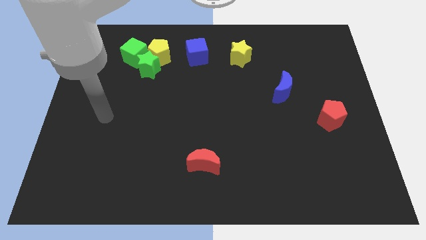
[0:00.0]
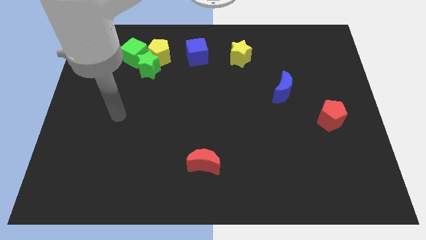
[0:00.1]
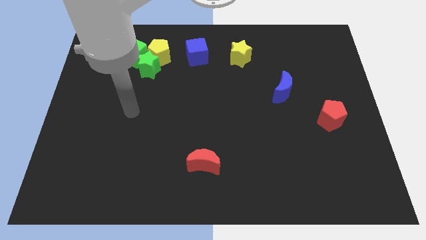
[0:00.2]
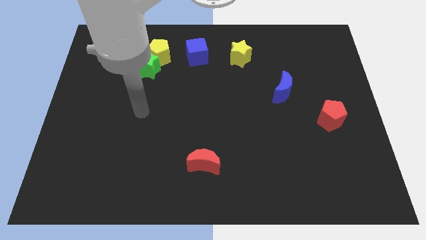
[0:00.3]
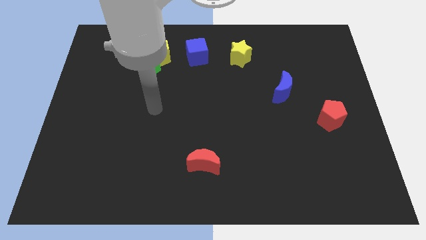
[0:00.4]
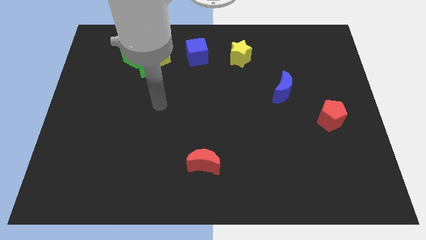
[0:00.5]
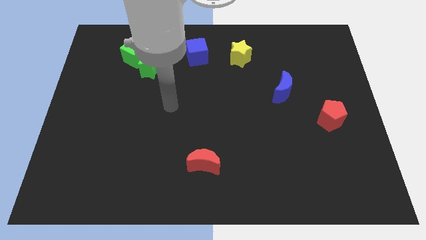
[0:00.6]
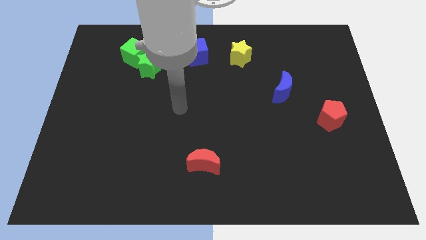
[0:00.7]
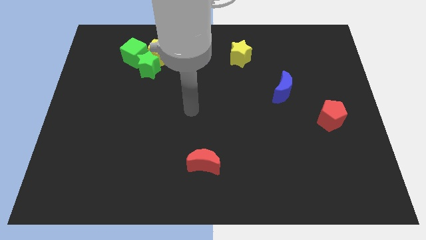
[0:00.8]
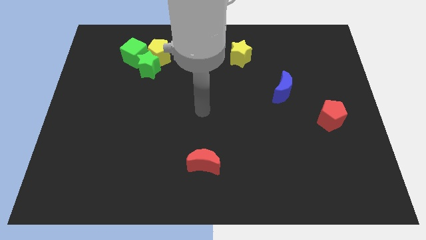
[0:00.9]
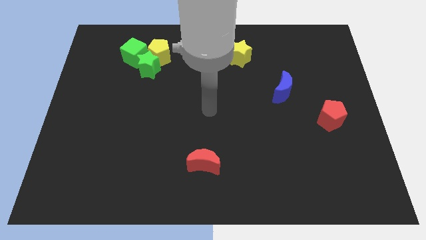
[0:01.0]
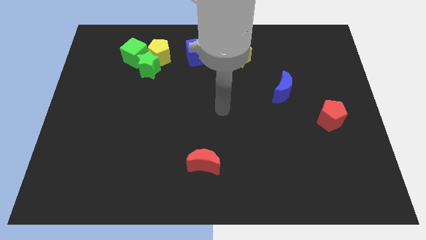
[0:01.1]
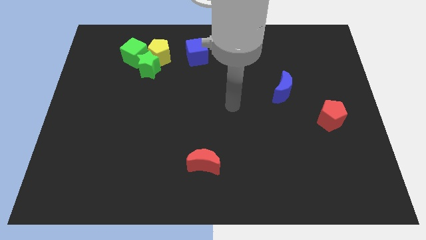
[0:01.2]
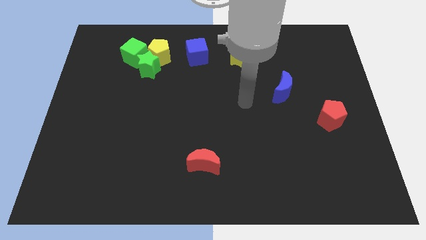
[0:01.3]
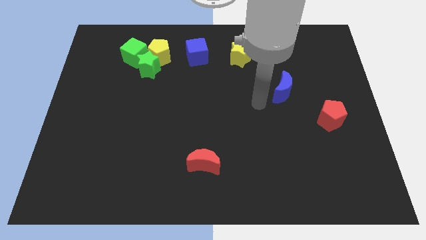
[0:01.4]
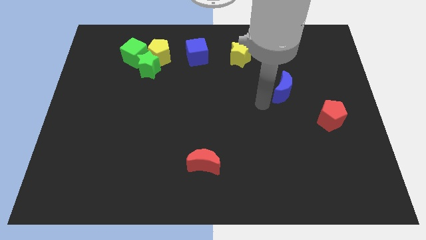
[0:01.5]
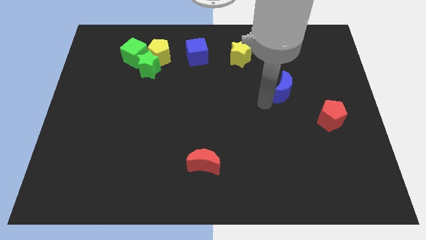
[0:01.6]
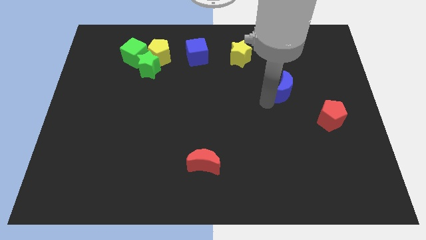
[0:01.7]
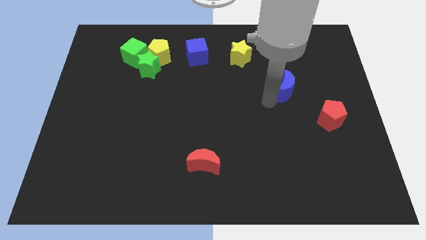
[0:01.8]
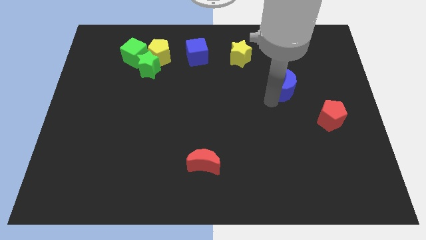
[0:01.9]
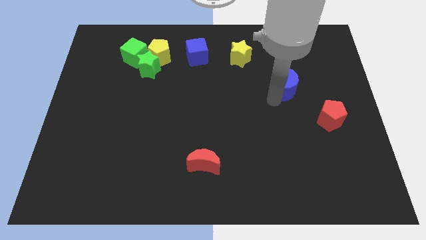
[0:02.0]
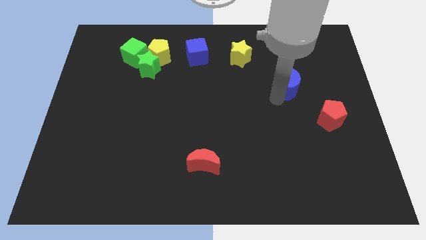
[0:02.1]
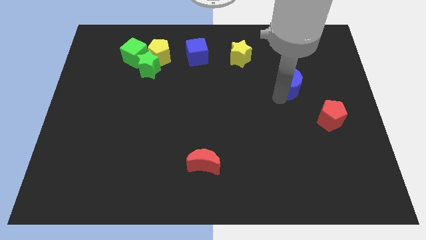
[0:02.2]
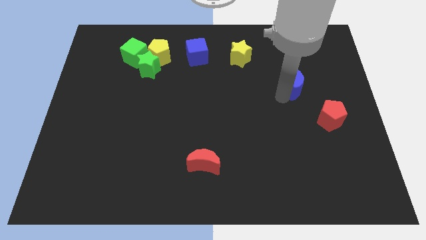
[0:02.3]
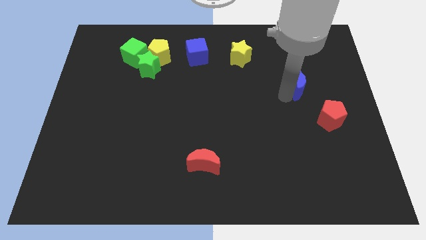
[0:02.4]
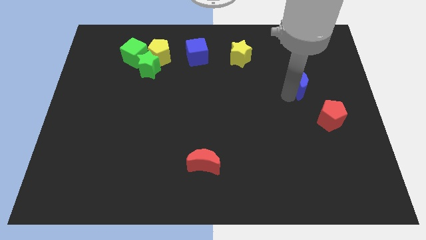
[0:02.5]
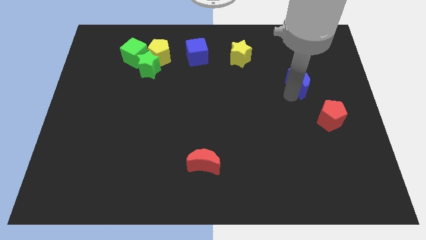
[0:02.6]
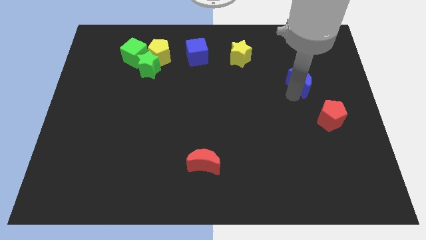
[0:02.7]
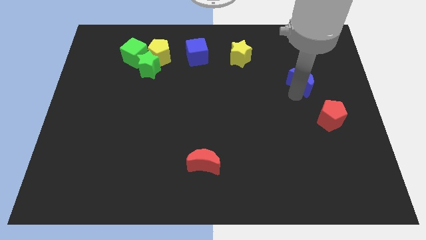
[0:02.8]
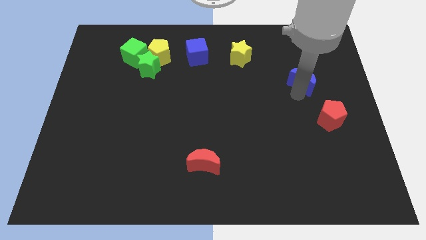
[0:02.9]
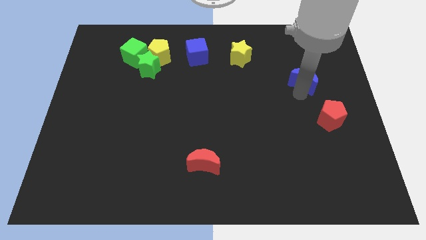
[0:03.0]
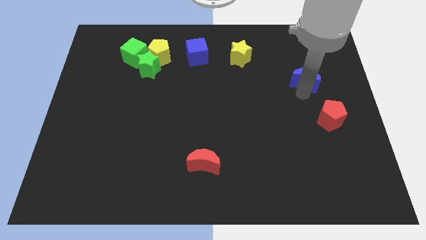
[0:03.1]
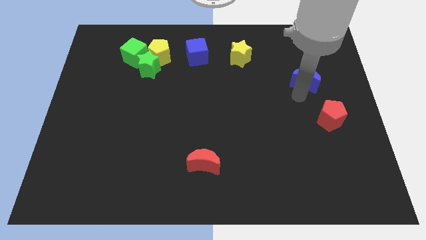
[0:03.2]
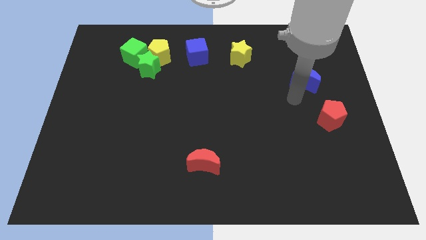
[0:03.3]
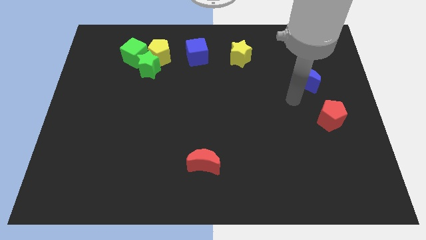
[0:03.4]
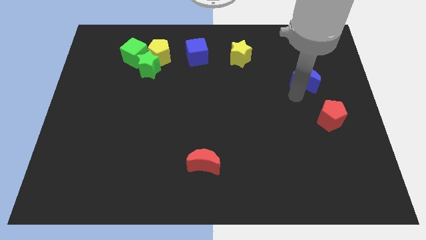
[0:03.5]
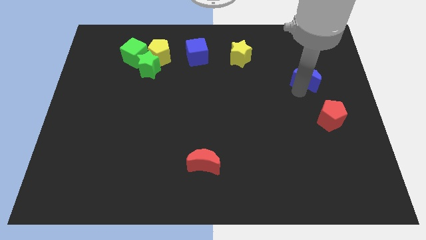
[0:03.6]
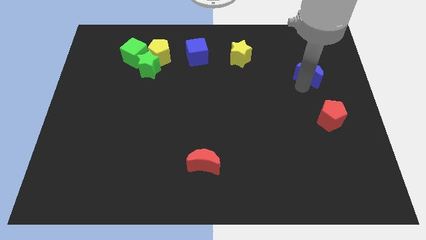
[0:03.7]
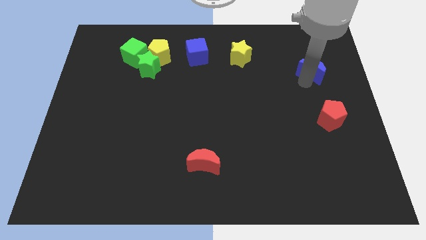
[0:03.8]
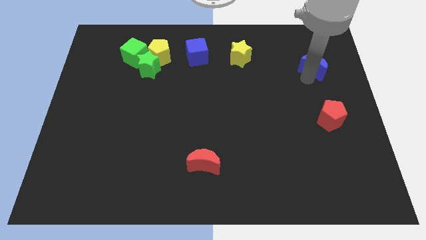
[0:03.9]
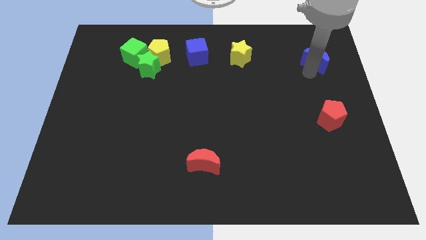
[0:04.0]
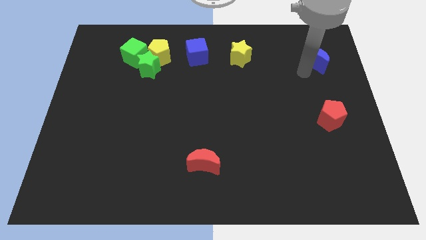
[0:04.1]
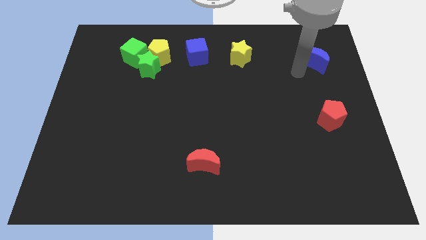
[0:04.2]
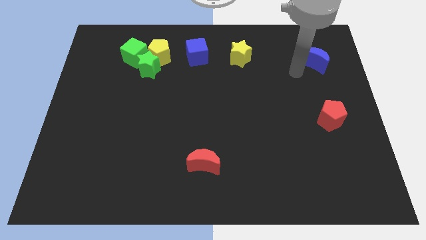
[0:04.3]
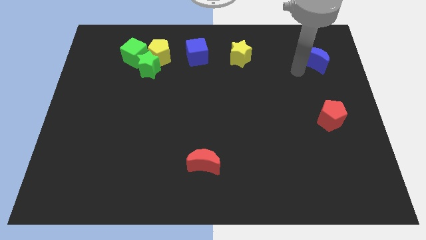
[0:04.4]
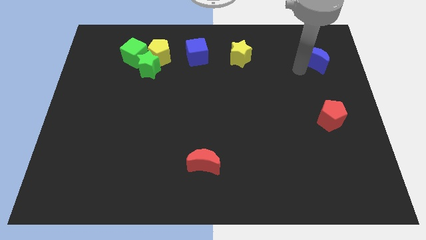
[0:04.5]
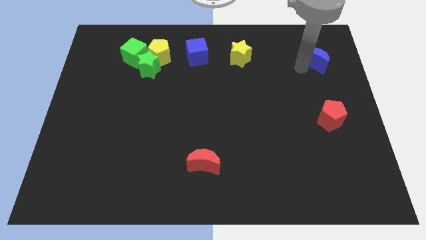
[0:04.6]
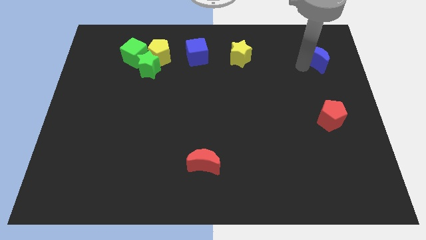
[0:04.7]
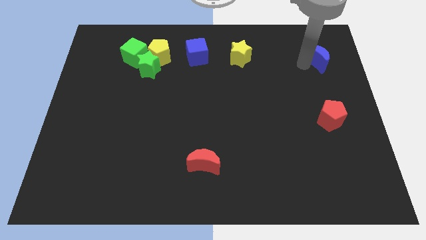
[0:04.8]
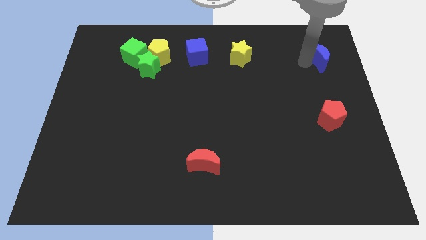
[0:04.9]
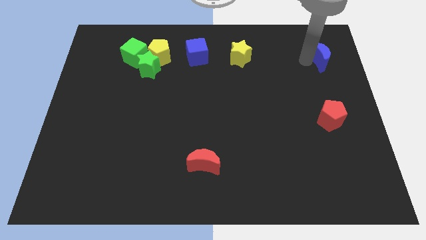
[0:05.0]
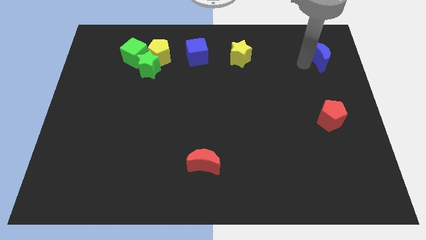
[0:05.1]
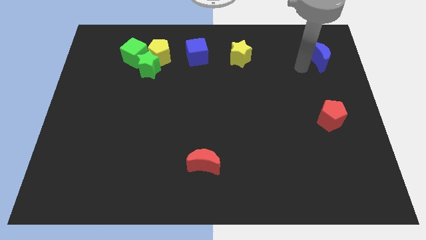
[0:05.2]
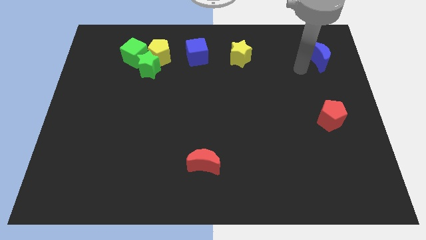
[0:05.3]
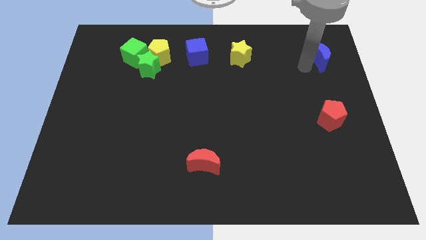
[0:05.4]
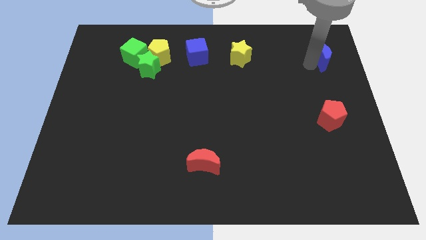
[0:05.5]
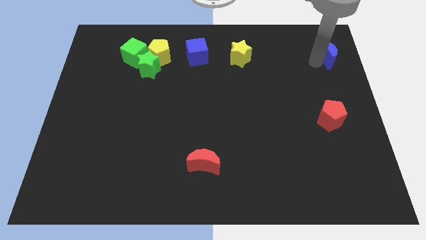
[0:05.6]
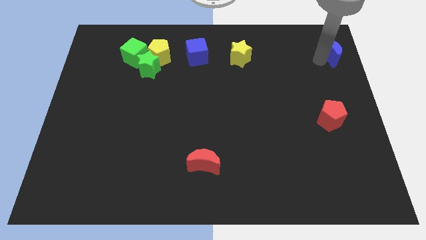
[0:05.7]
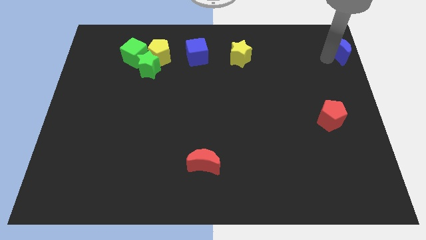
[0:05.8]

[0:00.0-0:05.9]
move the blue moon to the top right of the board

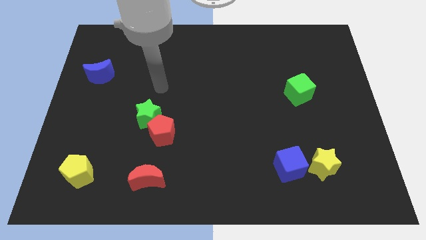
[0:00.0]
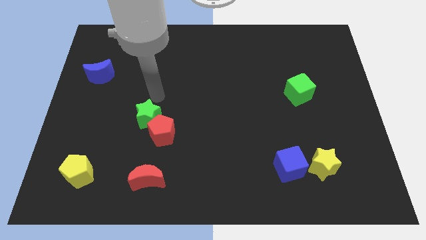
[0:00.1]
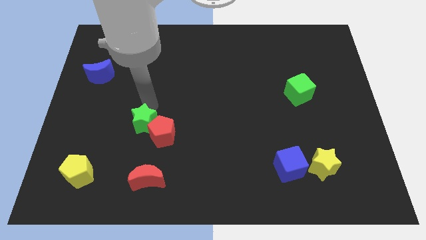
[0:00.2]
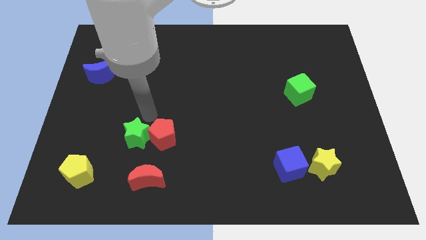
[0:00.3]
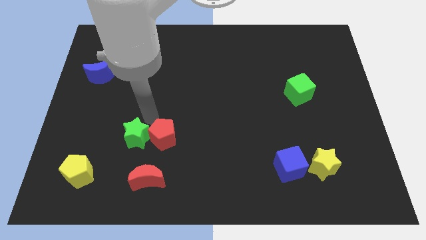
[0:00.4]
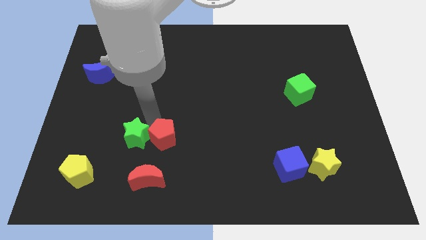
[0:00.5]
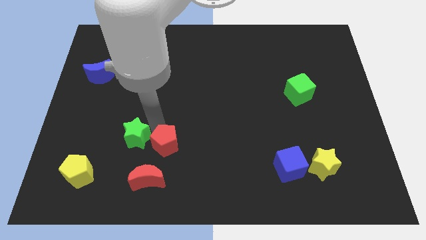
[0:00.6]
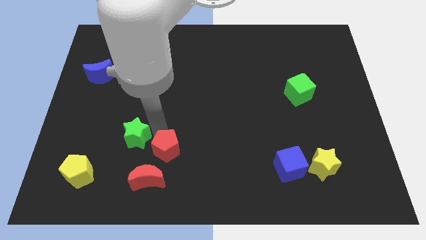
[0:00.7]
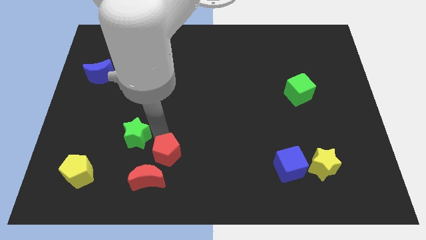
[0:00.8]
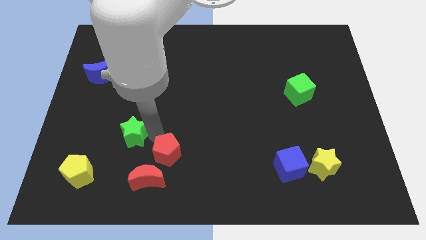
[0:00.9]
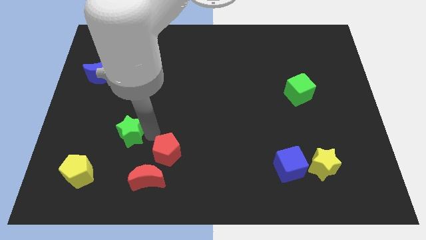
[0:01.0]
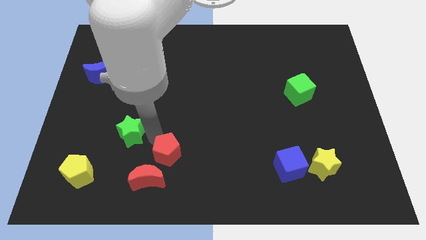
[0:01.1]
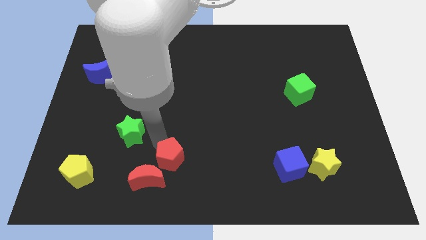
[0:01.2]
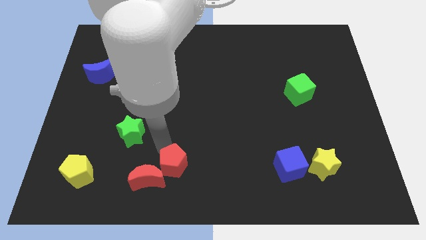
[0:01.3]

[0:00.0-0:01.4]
put the red pentagon to the bottom
